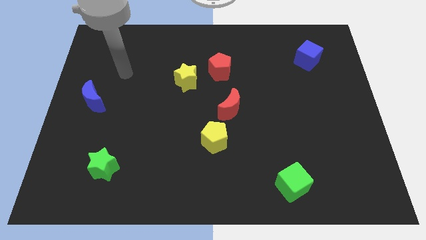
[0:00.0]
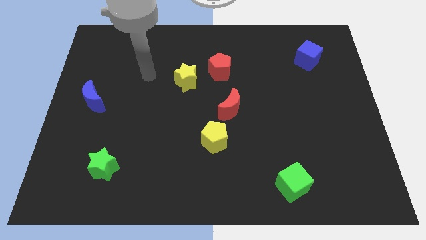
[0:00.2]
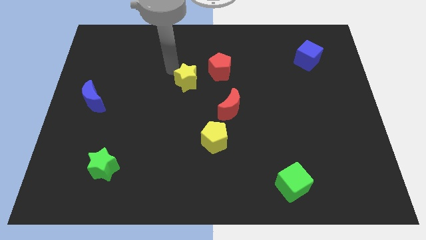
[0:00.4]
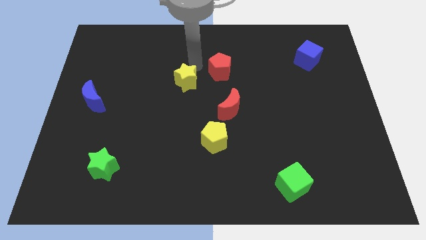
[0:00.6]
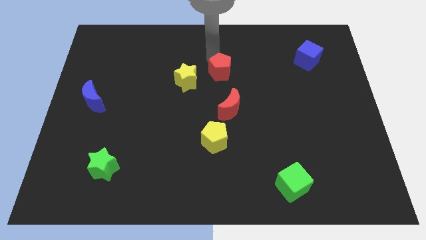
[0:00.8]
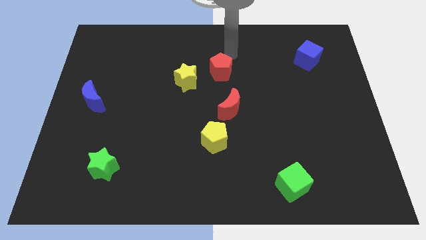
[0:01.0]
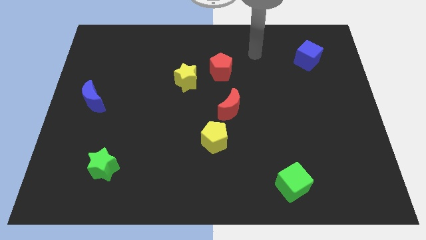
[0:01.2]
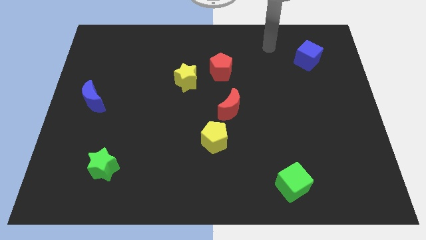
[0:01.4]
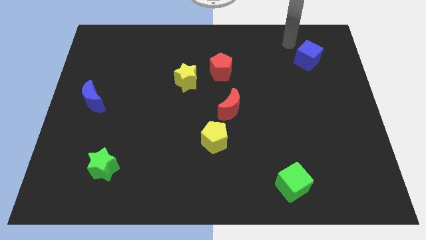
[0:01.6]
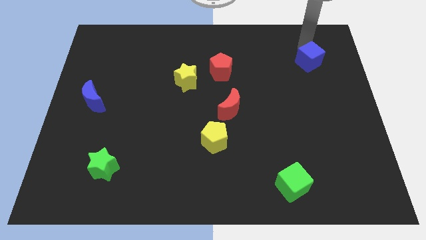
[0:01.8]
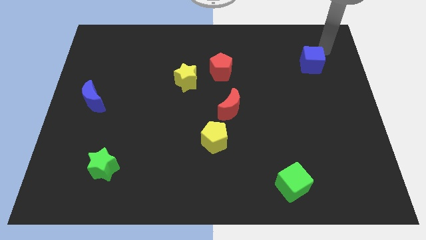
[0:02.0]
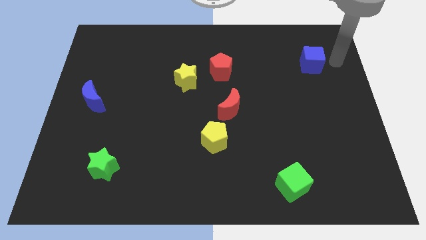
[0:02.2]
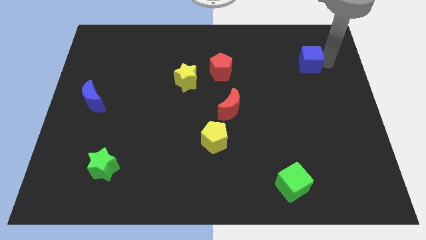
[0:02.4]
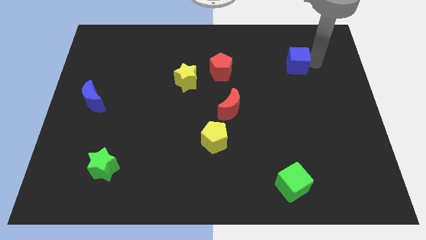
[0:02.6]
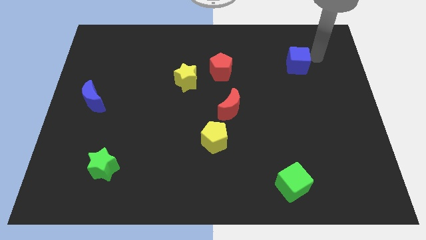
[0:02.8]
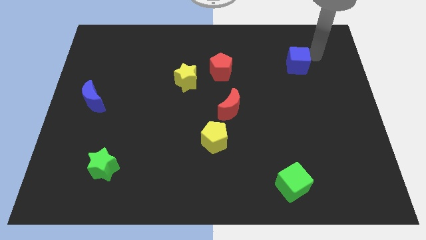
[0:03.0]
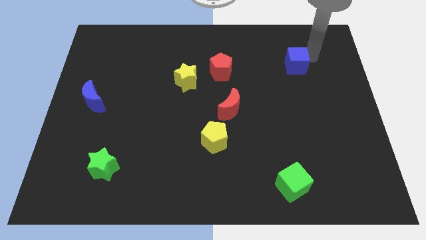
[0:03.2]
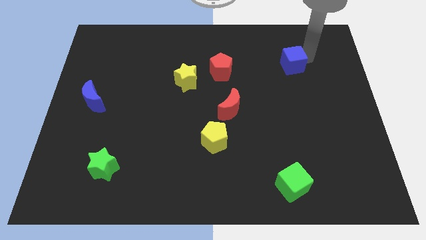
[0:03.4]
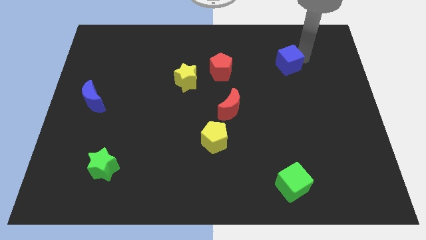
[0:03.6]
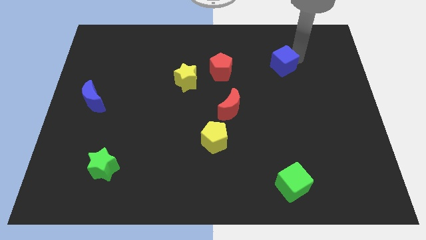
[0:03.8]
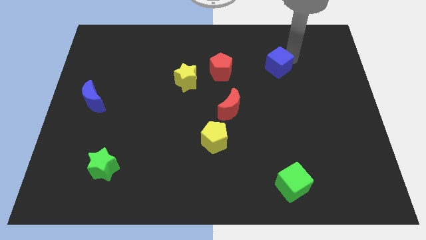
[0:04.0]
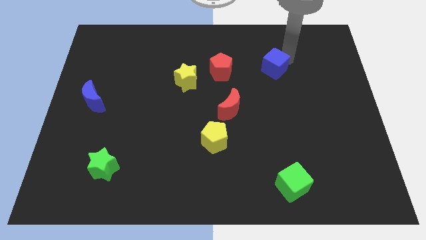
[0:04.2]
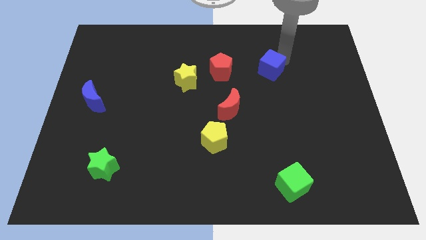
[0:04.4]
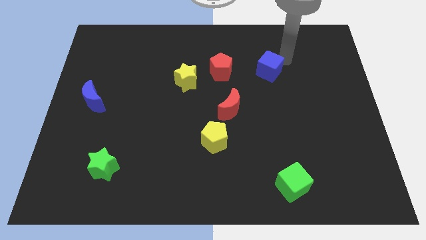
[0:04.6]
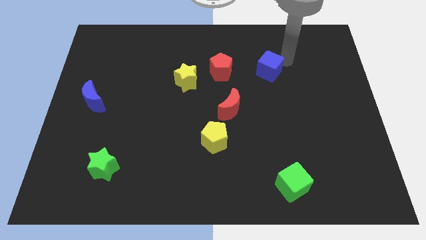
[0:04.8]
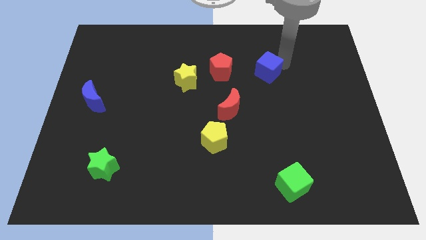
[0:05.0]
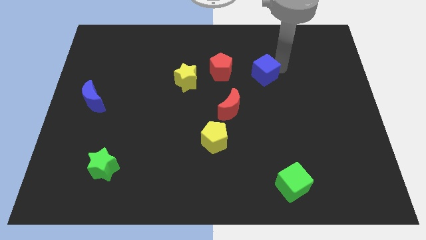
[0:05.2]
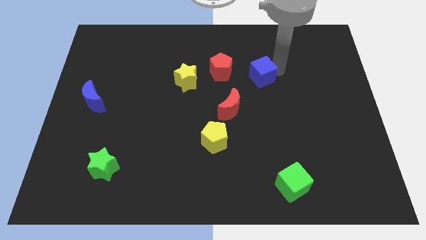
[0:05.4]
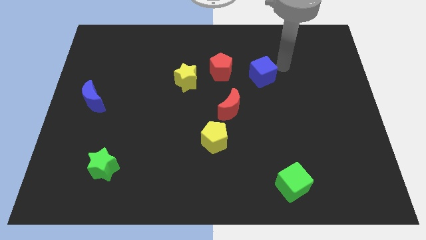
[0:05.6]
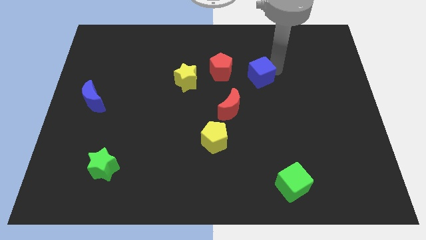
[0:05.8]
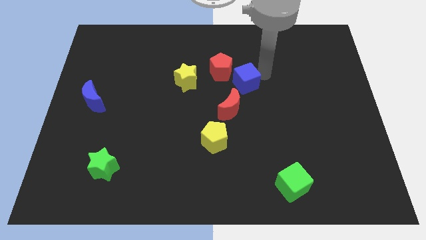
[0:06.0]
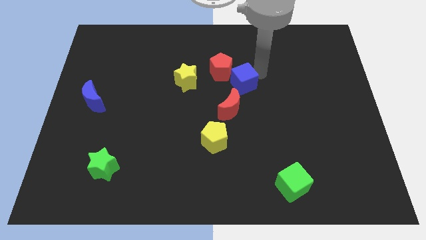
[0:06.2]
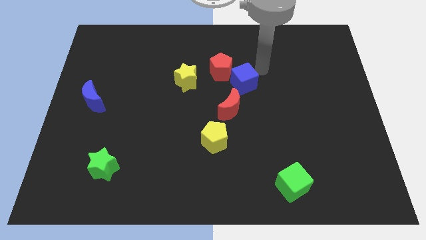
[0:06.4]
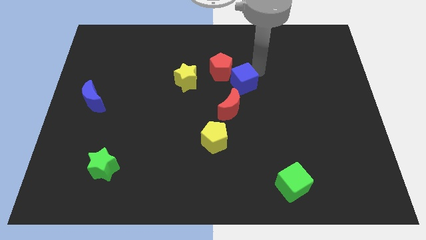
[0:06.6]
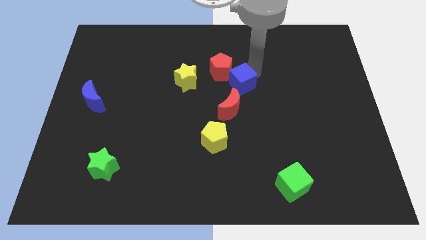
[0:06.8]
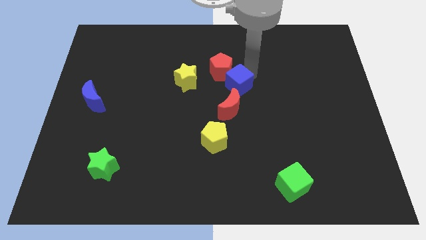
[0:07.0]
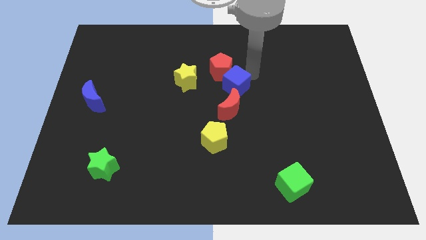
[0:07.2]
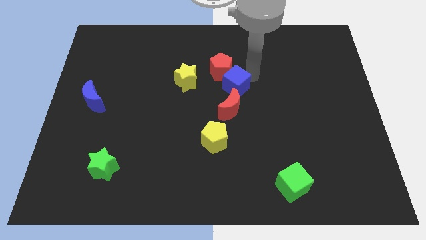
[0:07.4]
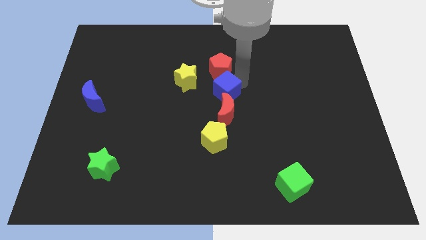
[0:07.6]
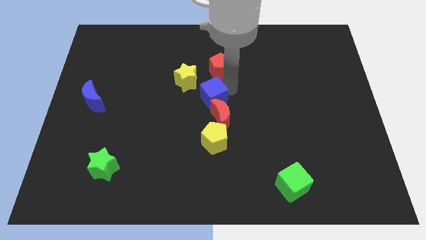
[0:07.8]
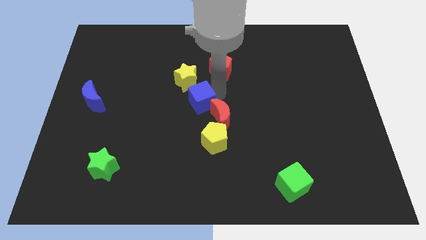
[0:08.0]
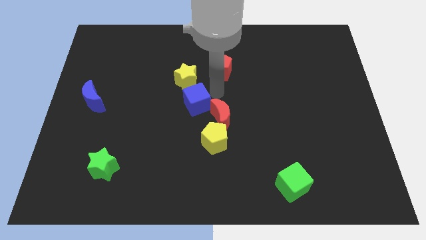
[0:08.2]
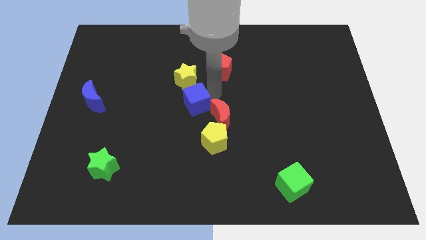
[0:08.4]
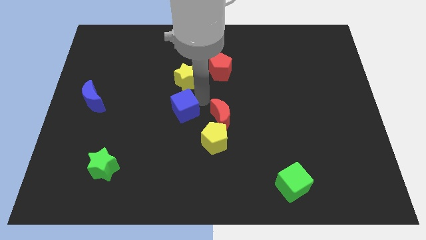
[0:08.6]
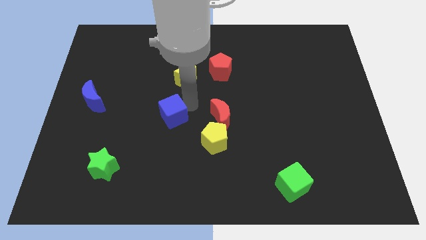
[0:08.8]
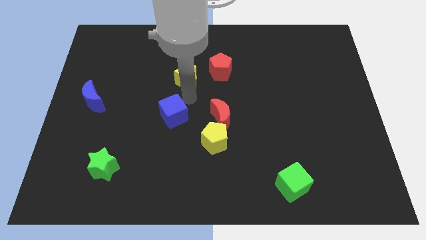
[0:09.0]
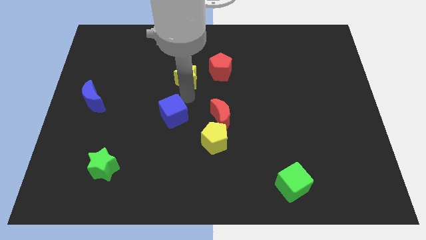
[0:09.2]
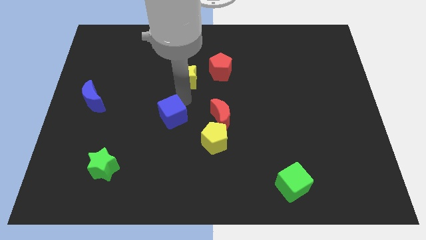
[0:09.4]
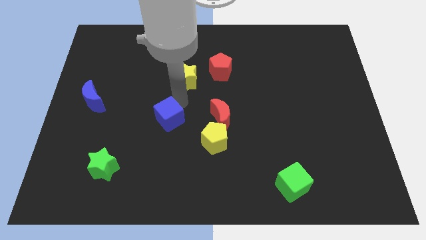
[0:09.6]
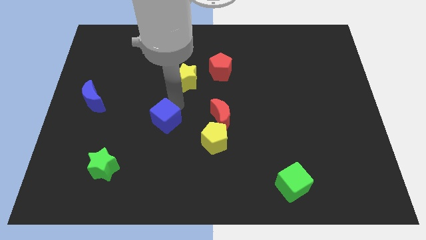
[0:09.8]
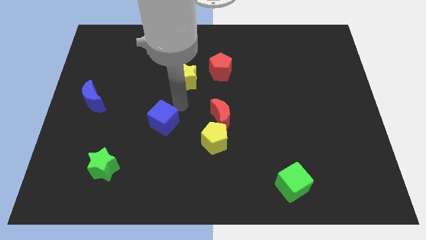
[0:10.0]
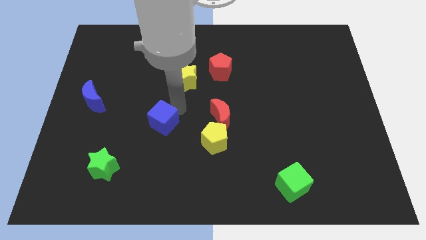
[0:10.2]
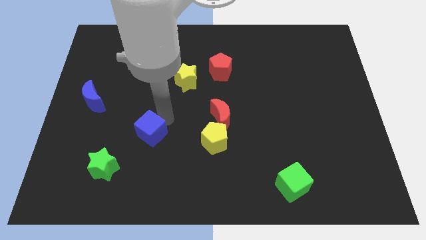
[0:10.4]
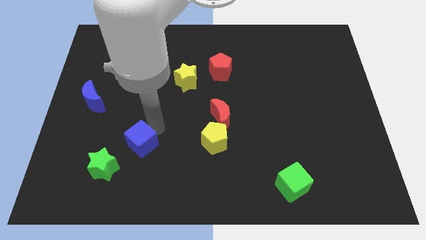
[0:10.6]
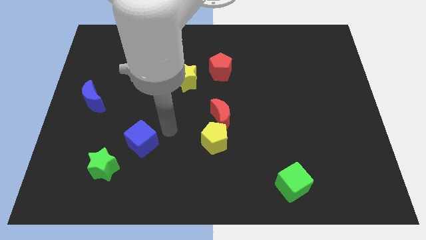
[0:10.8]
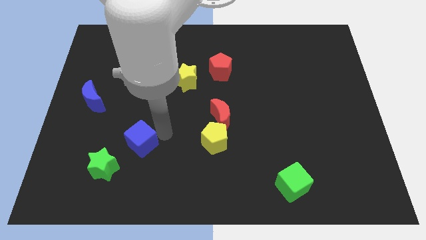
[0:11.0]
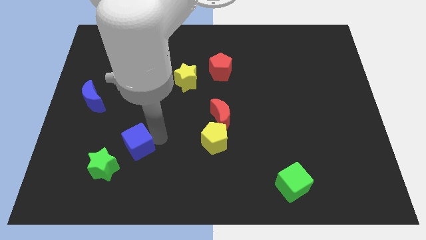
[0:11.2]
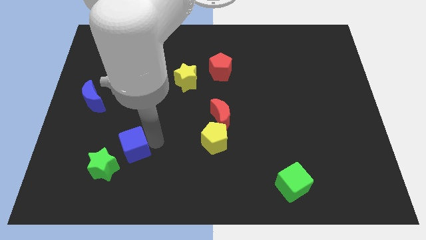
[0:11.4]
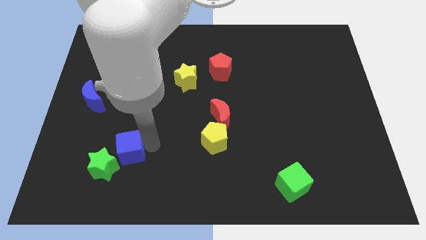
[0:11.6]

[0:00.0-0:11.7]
slide the blue cube towards the green star

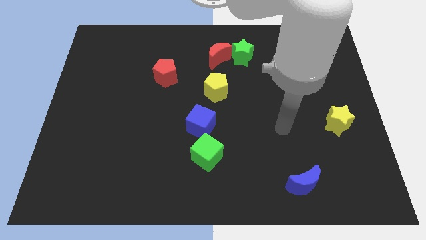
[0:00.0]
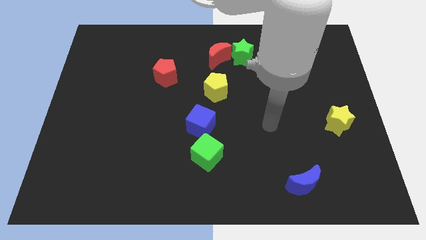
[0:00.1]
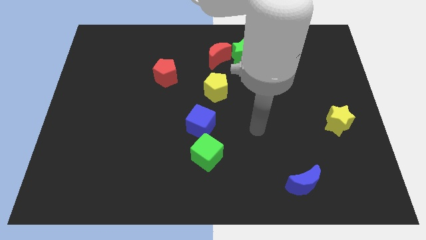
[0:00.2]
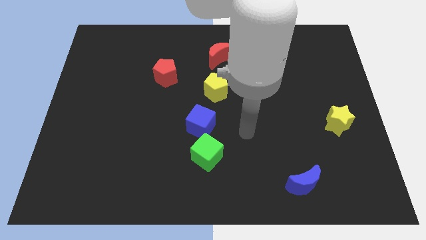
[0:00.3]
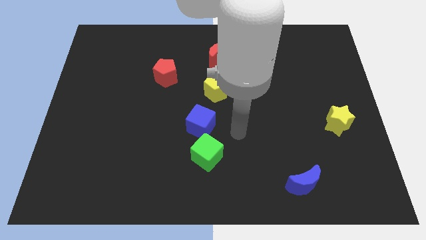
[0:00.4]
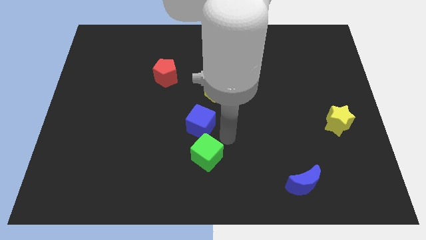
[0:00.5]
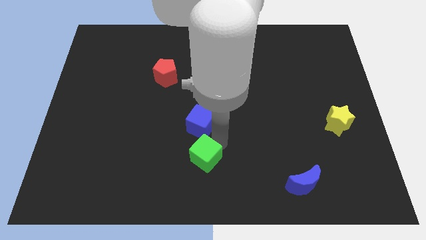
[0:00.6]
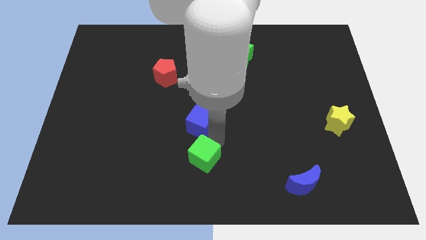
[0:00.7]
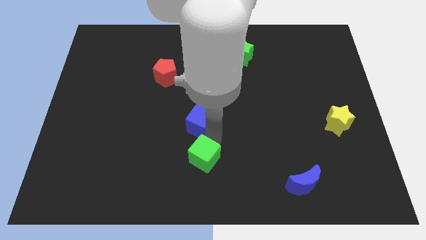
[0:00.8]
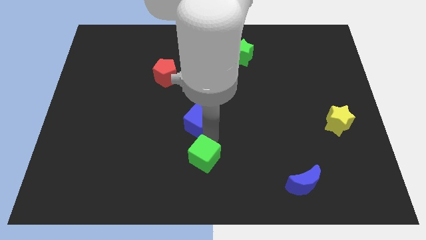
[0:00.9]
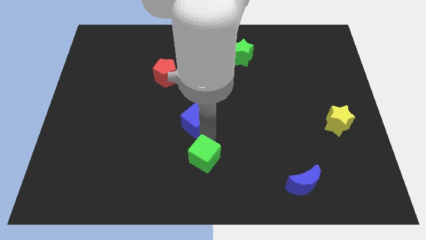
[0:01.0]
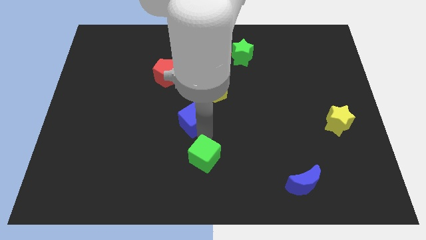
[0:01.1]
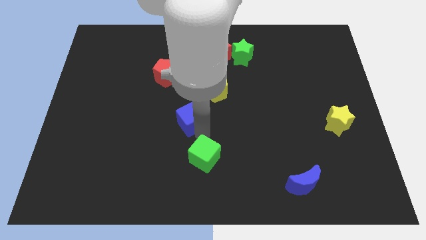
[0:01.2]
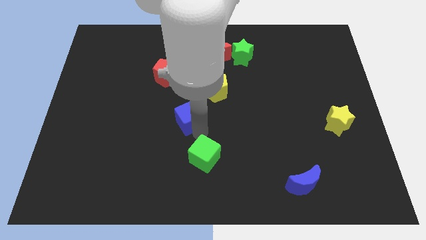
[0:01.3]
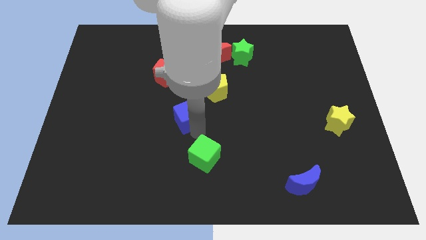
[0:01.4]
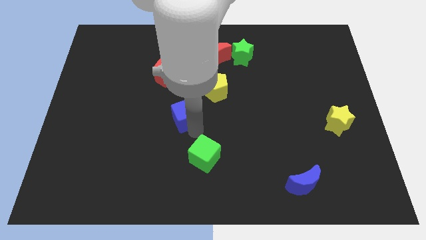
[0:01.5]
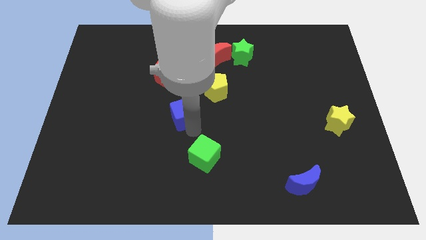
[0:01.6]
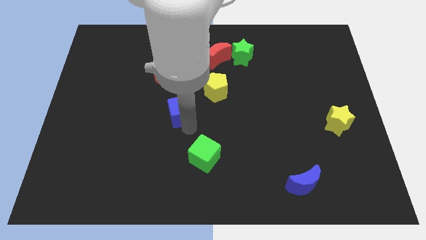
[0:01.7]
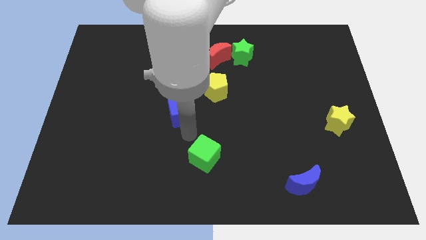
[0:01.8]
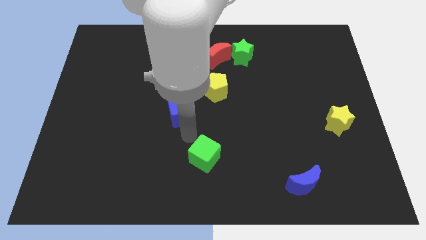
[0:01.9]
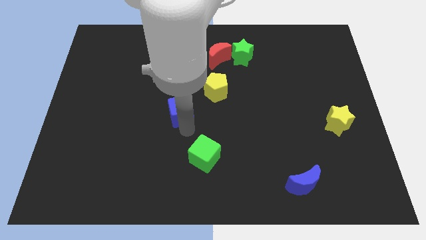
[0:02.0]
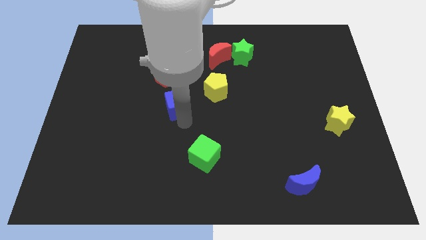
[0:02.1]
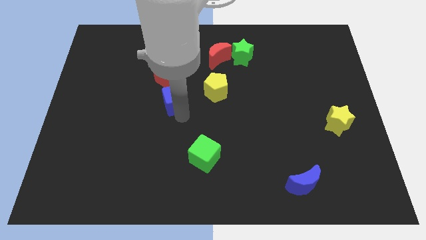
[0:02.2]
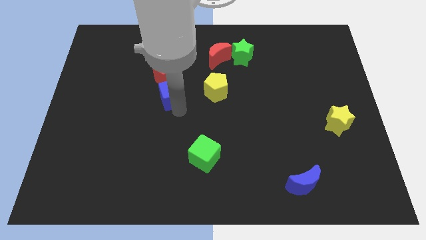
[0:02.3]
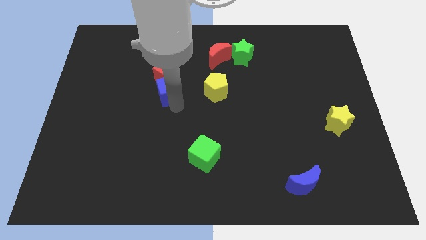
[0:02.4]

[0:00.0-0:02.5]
push the blue cube to the red pentagon
